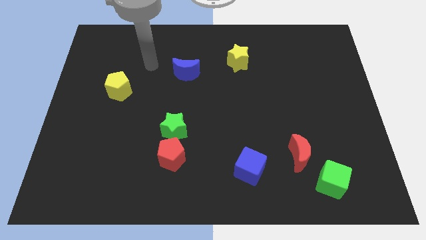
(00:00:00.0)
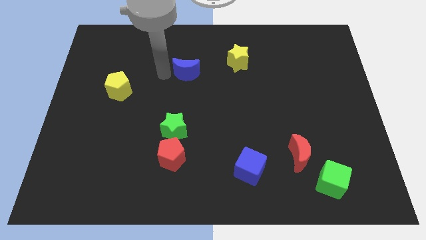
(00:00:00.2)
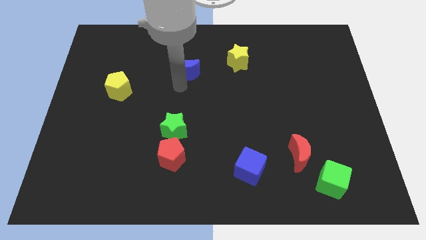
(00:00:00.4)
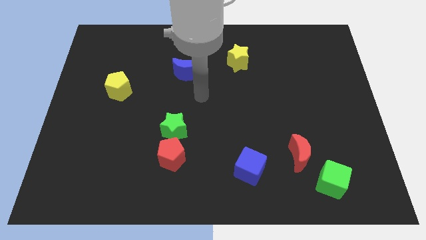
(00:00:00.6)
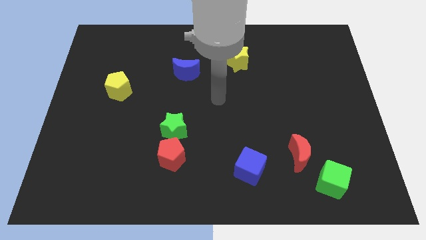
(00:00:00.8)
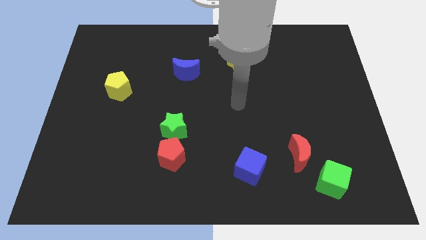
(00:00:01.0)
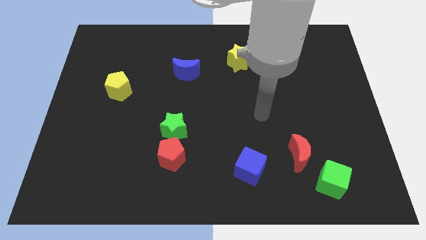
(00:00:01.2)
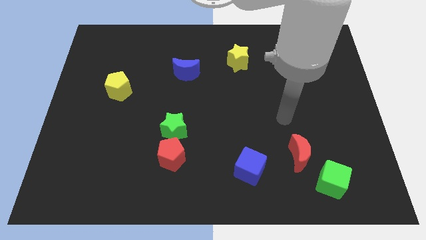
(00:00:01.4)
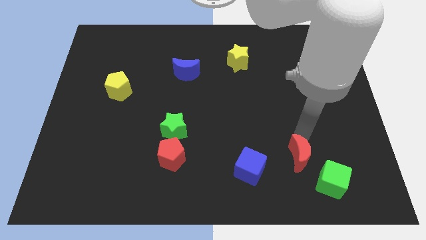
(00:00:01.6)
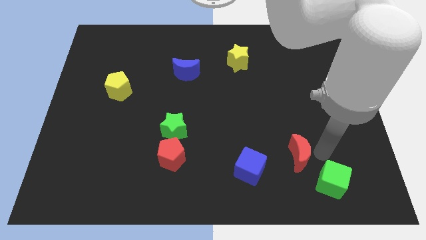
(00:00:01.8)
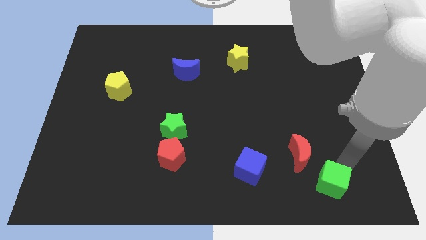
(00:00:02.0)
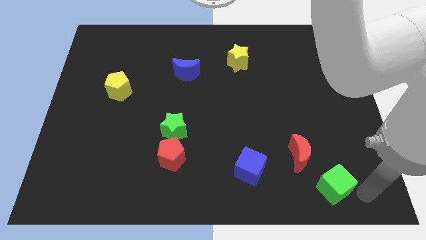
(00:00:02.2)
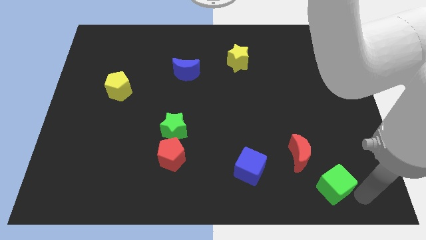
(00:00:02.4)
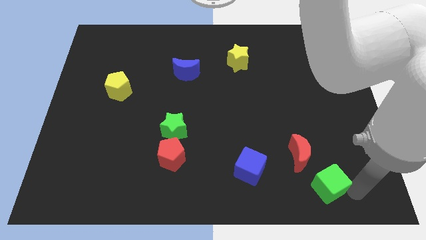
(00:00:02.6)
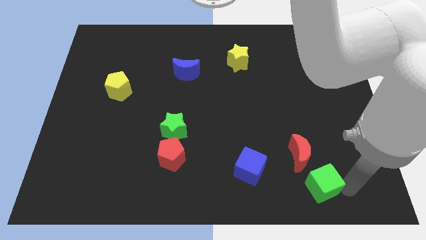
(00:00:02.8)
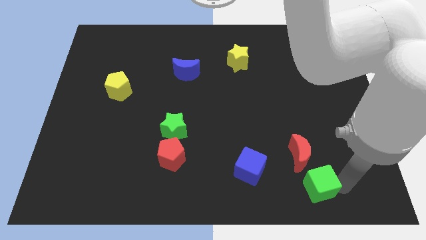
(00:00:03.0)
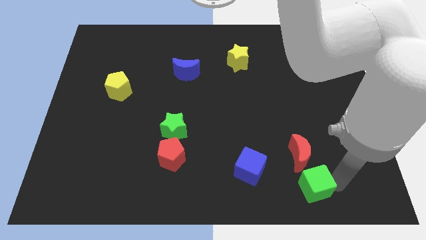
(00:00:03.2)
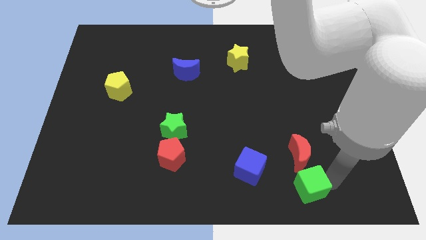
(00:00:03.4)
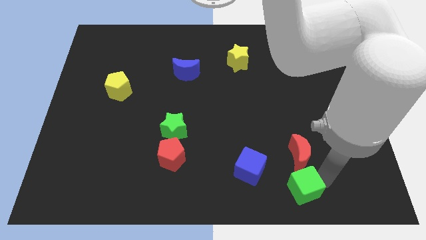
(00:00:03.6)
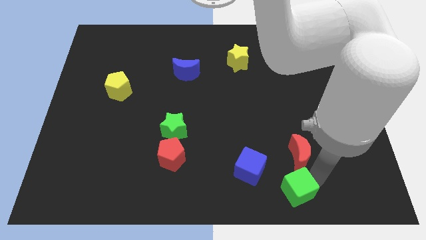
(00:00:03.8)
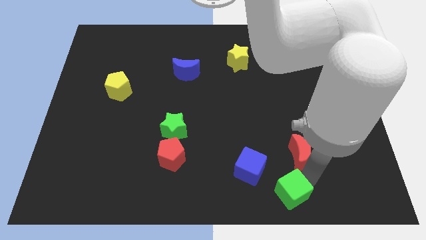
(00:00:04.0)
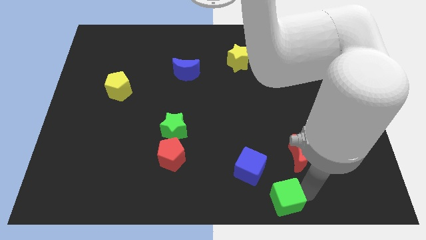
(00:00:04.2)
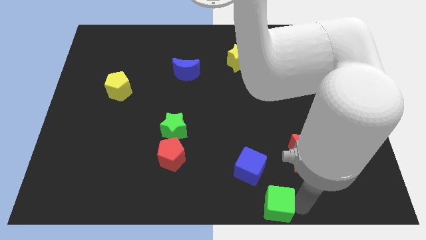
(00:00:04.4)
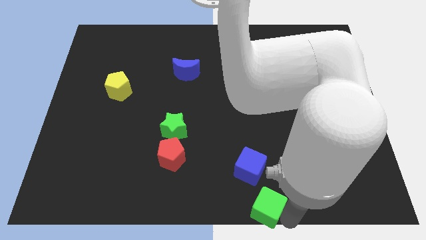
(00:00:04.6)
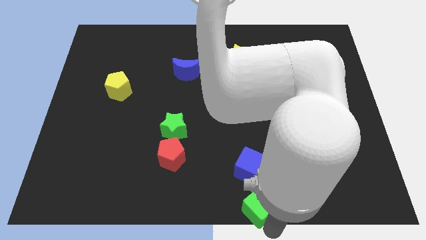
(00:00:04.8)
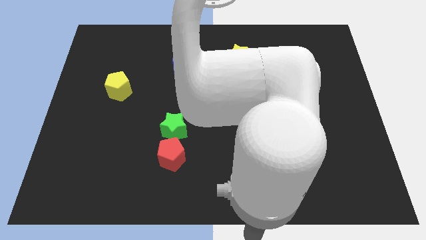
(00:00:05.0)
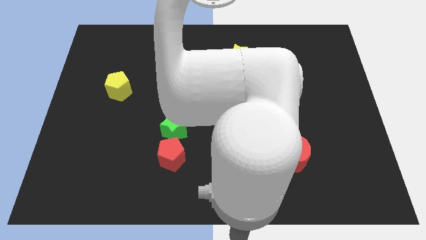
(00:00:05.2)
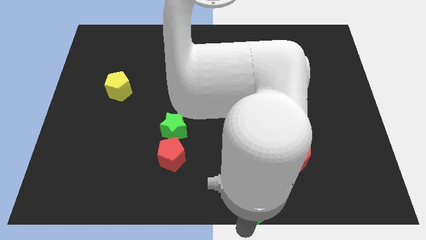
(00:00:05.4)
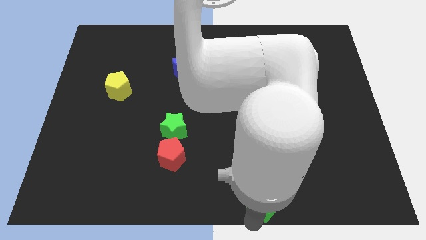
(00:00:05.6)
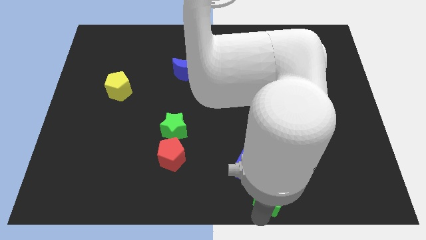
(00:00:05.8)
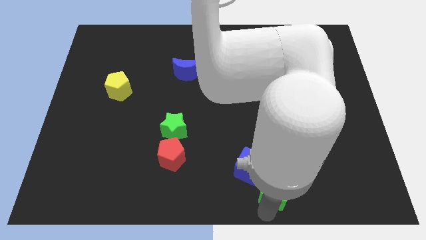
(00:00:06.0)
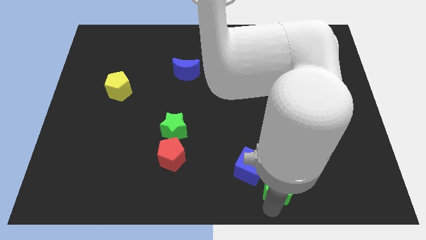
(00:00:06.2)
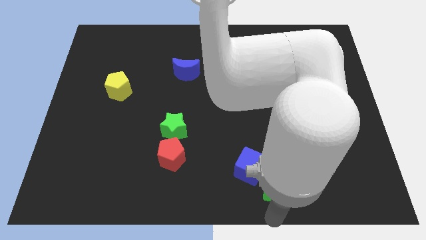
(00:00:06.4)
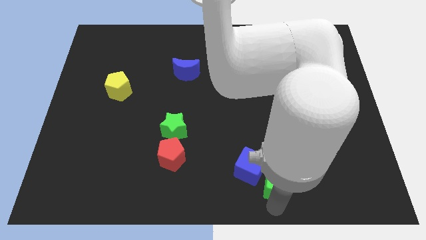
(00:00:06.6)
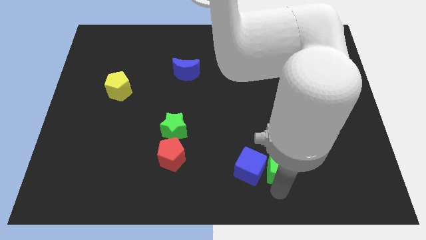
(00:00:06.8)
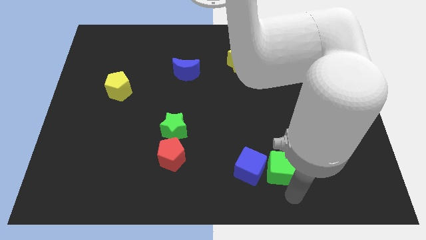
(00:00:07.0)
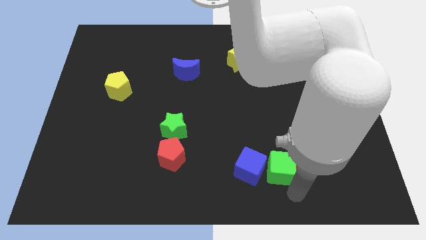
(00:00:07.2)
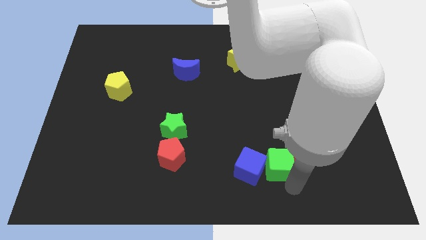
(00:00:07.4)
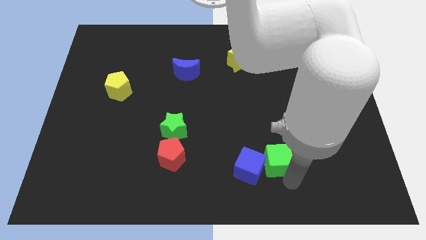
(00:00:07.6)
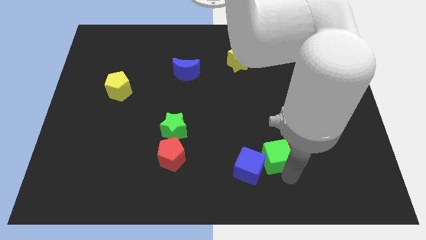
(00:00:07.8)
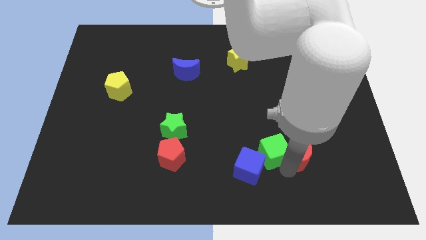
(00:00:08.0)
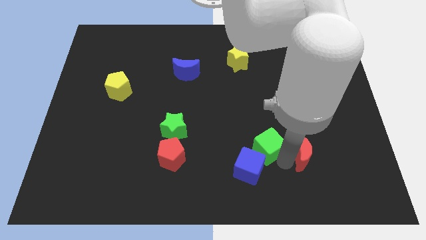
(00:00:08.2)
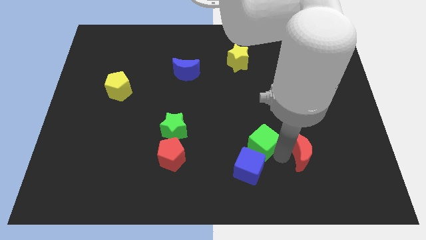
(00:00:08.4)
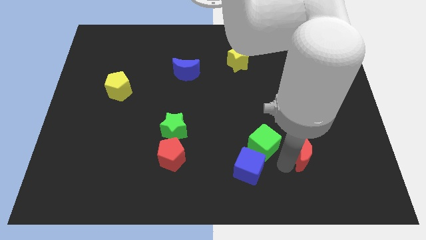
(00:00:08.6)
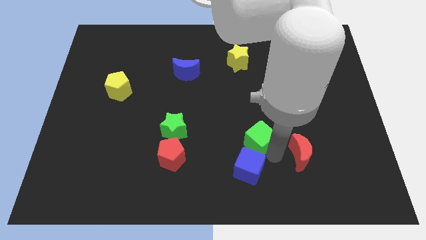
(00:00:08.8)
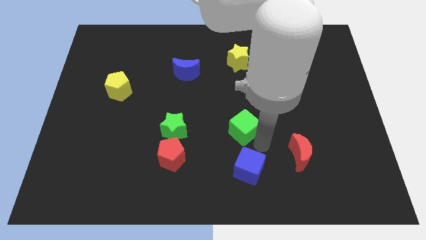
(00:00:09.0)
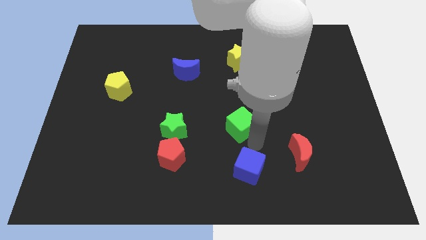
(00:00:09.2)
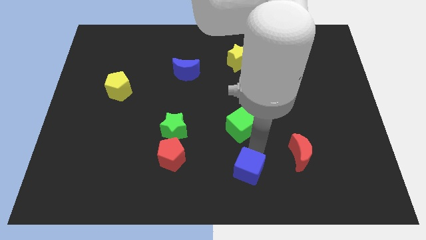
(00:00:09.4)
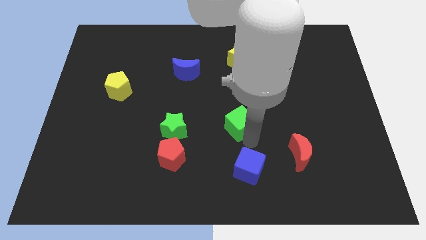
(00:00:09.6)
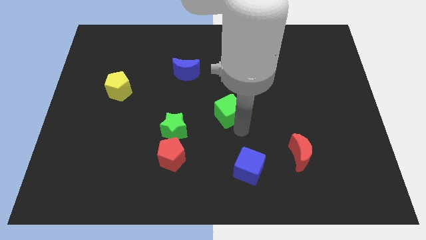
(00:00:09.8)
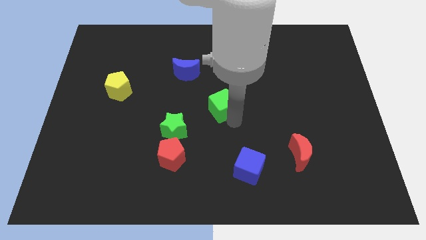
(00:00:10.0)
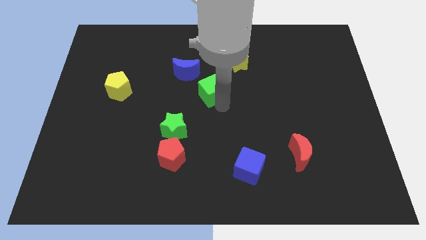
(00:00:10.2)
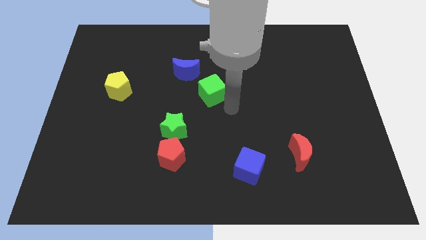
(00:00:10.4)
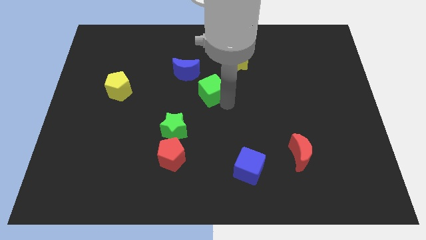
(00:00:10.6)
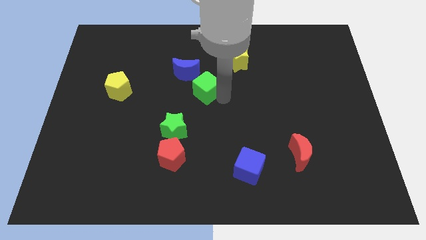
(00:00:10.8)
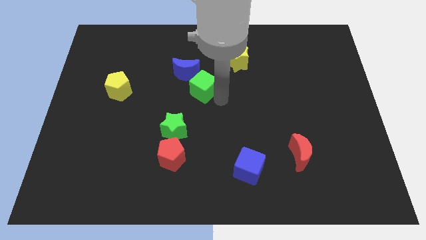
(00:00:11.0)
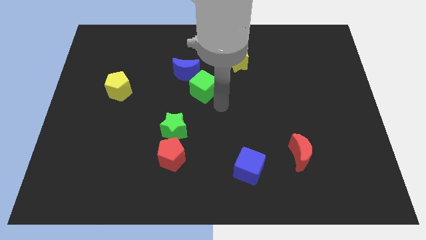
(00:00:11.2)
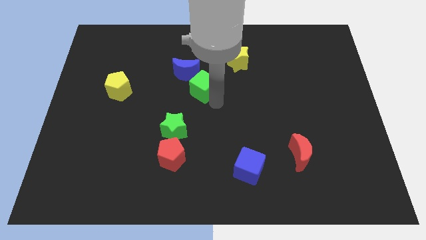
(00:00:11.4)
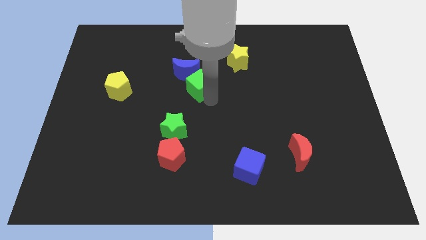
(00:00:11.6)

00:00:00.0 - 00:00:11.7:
push the green cube close to the blue moon

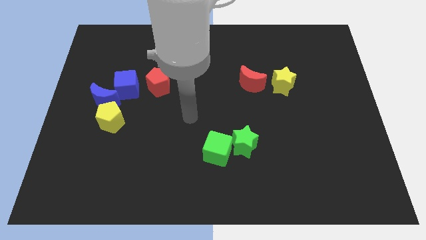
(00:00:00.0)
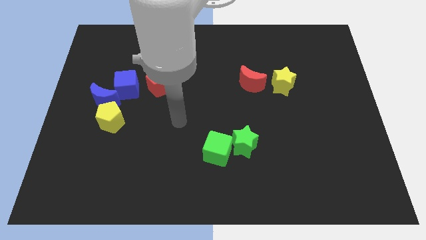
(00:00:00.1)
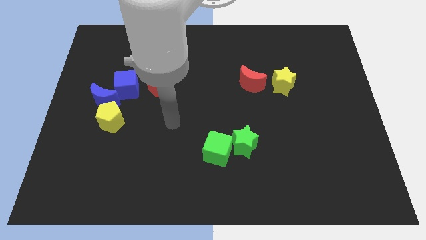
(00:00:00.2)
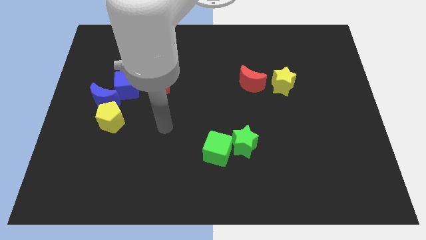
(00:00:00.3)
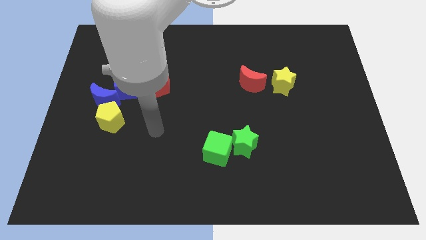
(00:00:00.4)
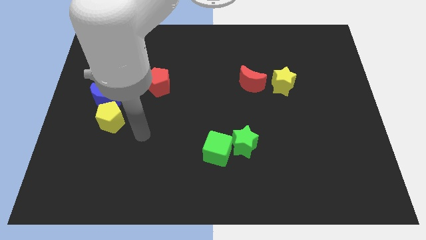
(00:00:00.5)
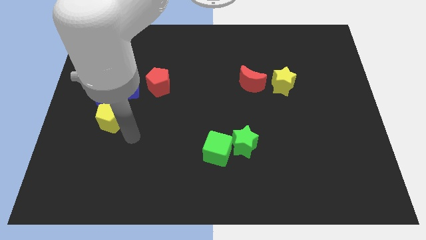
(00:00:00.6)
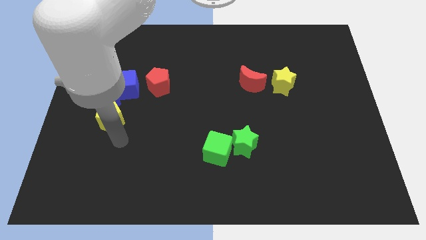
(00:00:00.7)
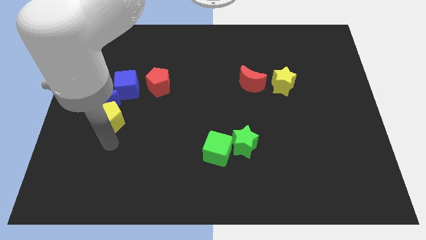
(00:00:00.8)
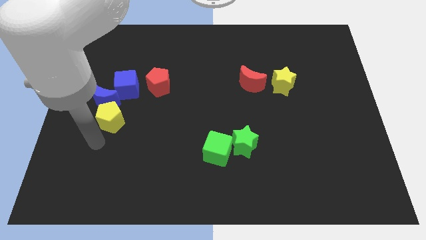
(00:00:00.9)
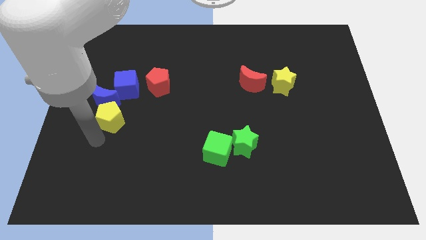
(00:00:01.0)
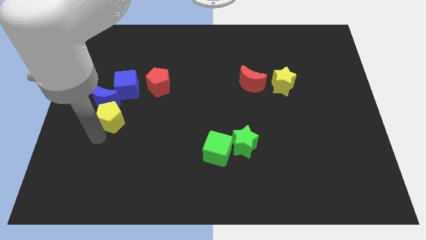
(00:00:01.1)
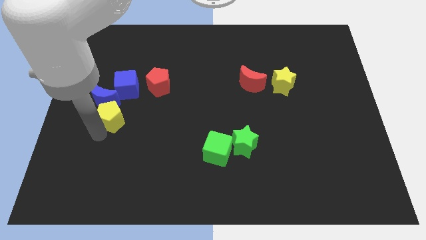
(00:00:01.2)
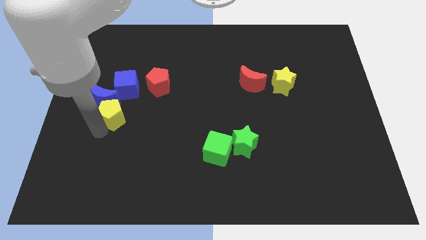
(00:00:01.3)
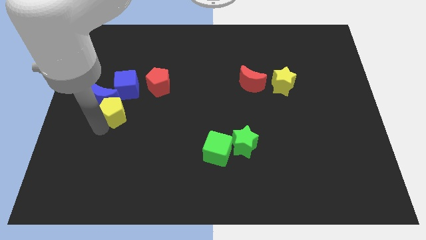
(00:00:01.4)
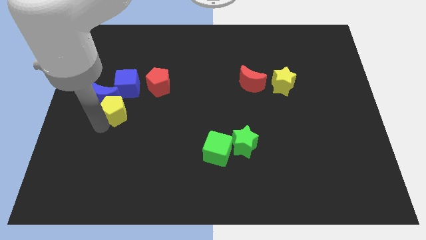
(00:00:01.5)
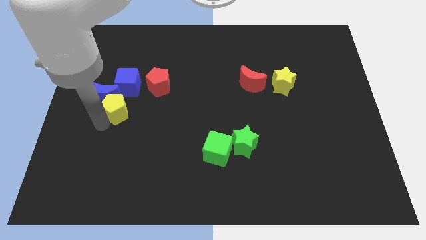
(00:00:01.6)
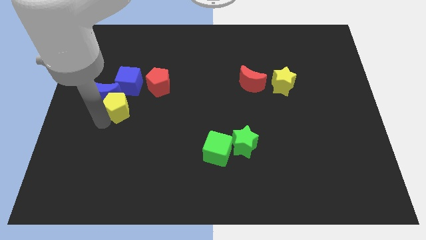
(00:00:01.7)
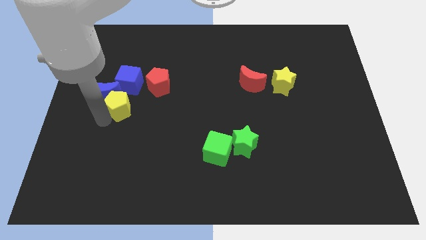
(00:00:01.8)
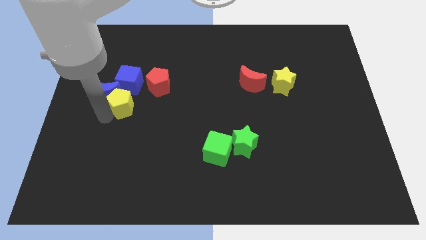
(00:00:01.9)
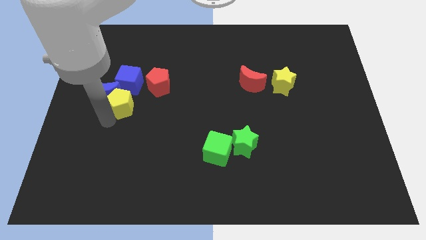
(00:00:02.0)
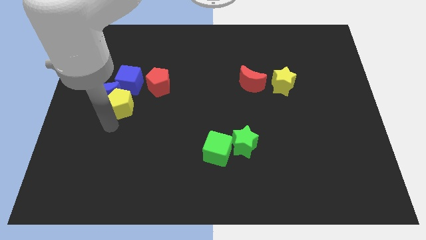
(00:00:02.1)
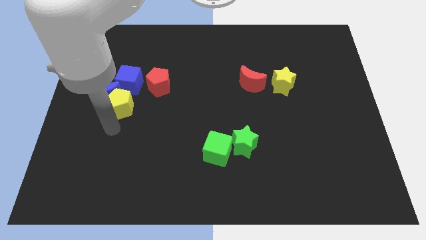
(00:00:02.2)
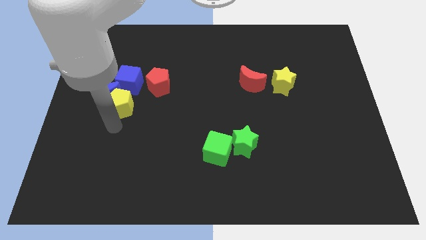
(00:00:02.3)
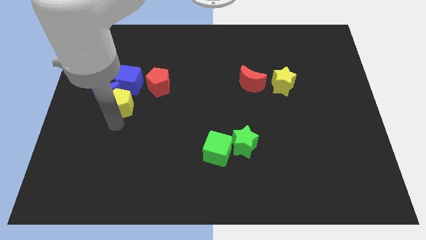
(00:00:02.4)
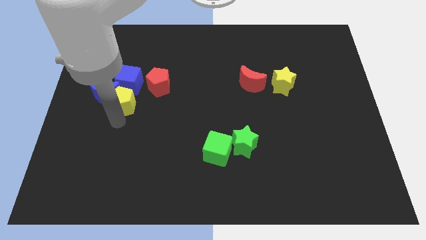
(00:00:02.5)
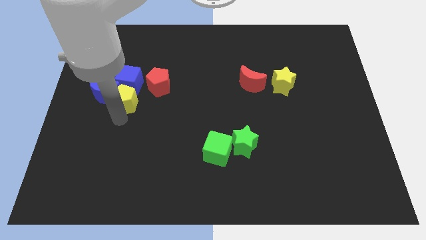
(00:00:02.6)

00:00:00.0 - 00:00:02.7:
put the yellow pentagon next to the blue cube
